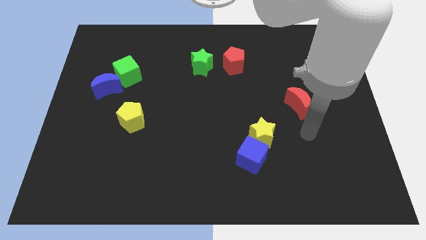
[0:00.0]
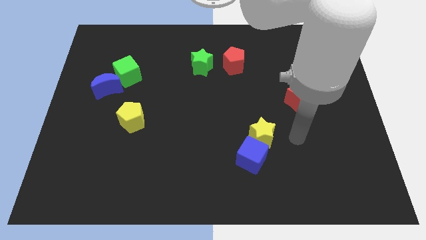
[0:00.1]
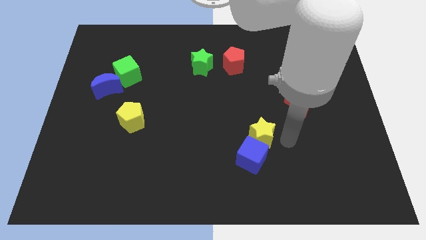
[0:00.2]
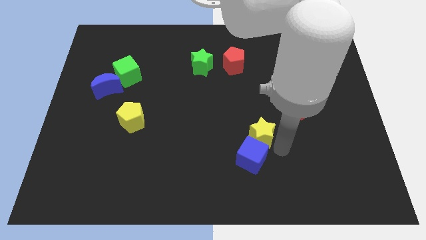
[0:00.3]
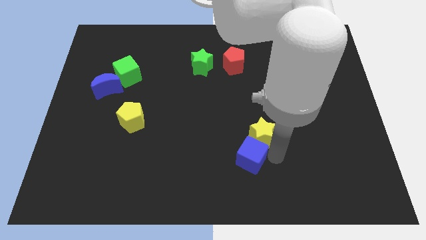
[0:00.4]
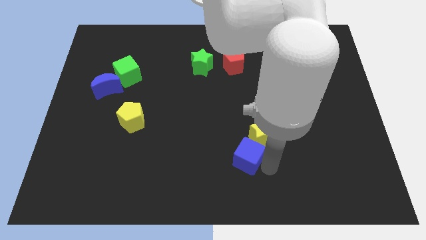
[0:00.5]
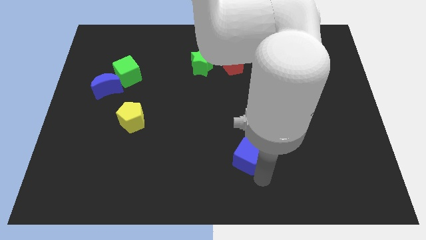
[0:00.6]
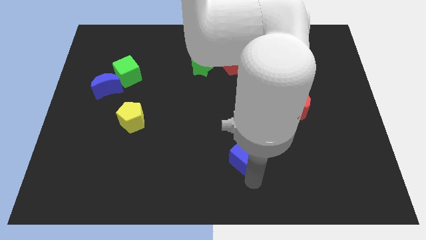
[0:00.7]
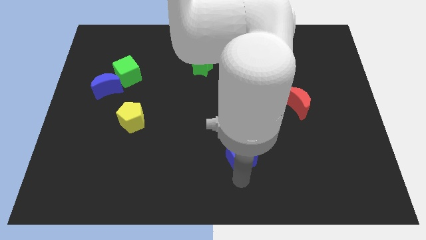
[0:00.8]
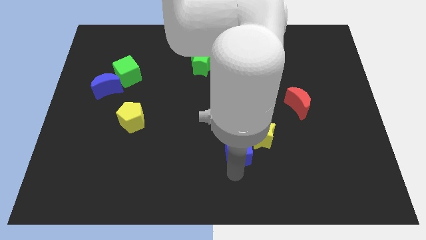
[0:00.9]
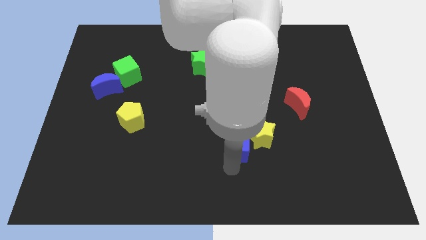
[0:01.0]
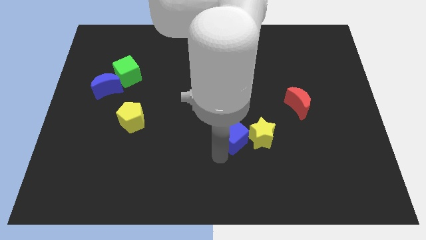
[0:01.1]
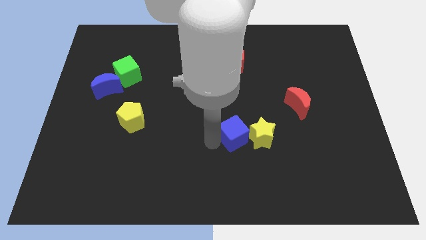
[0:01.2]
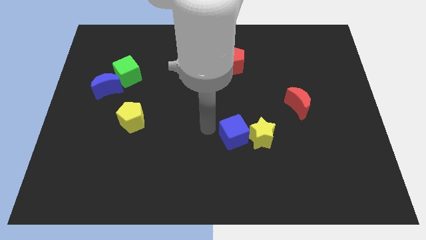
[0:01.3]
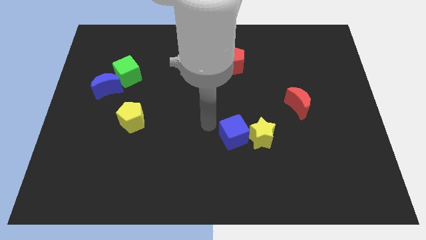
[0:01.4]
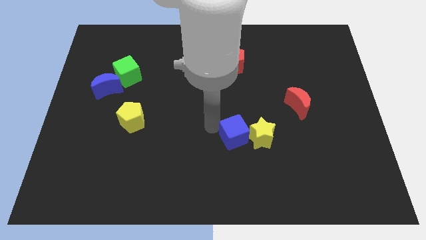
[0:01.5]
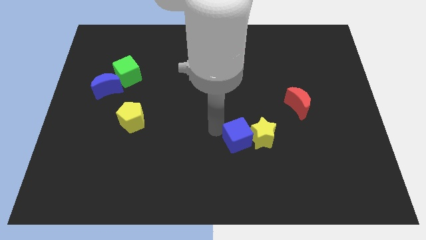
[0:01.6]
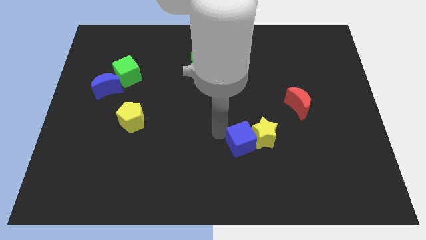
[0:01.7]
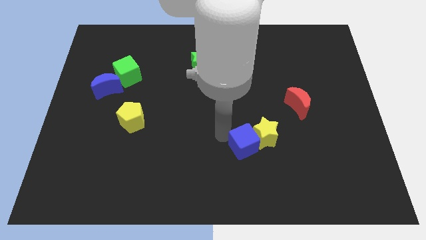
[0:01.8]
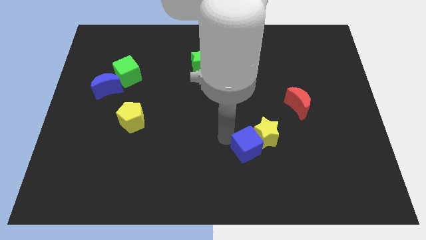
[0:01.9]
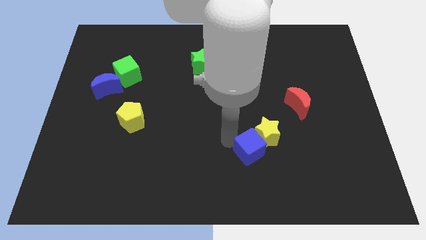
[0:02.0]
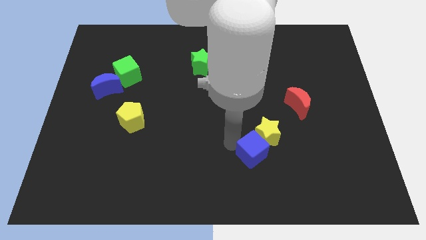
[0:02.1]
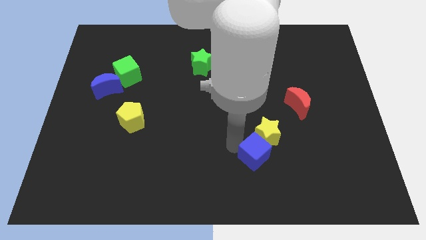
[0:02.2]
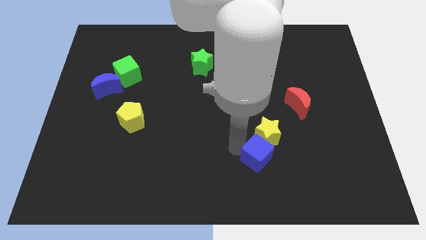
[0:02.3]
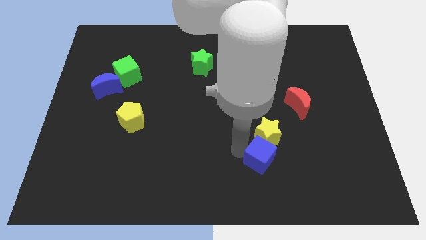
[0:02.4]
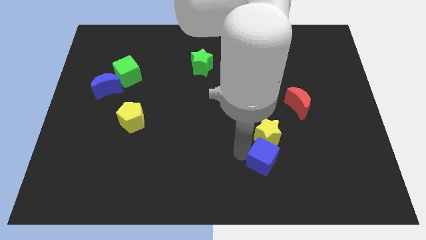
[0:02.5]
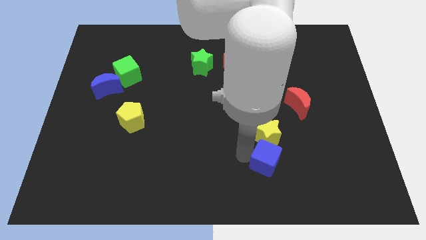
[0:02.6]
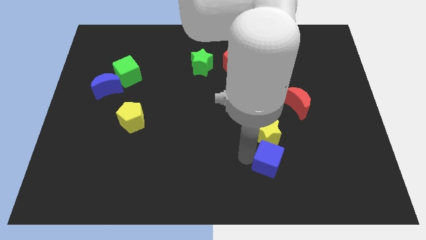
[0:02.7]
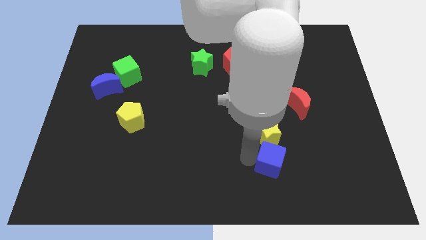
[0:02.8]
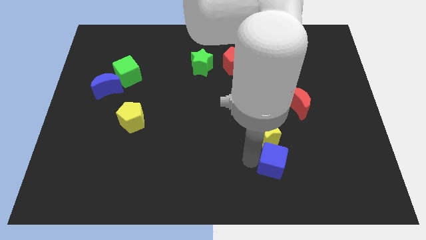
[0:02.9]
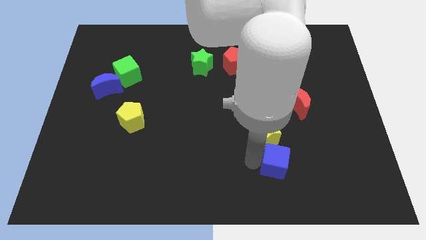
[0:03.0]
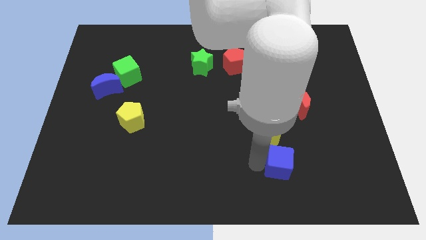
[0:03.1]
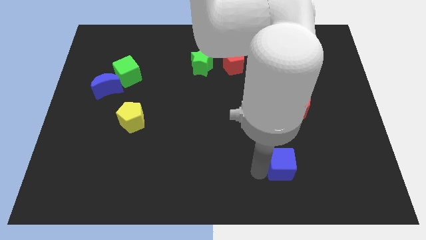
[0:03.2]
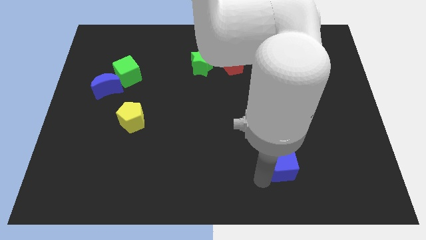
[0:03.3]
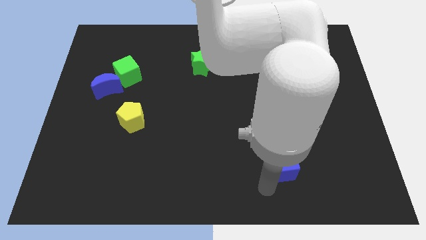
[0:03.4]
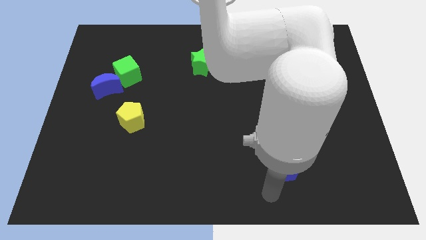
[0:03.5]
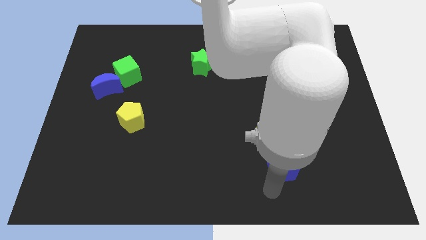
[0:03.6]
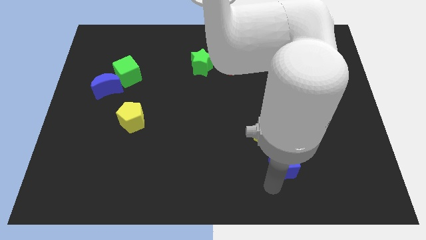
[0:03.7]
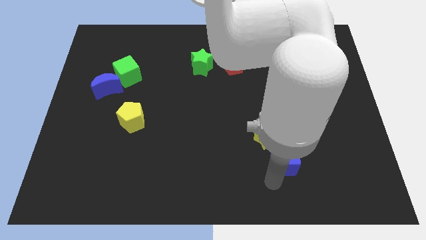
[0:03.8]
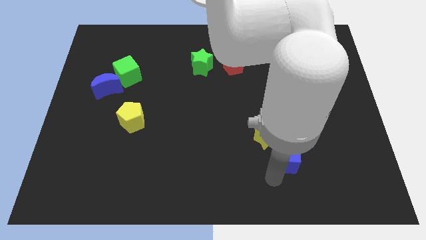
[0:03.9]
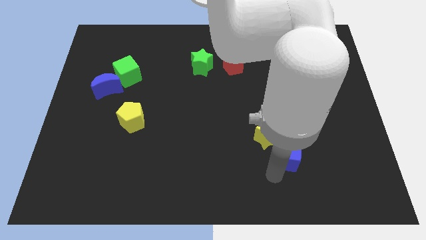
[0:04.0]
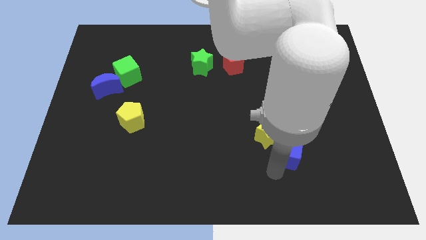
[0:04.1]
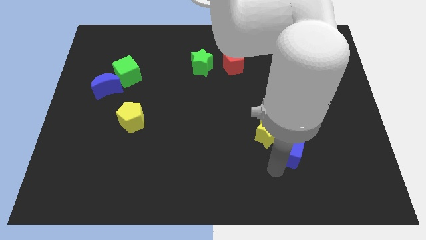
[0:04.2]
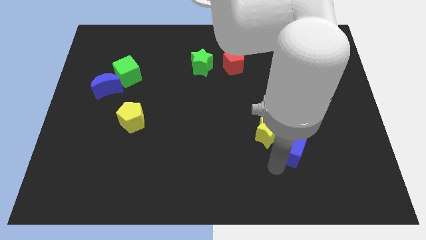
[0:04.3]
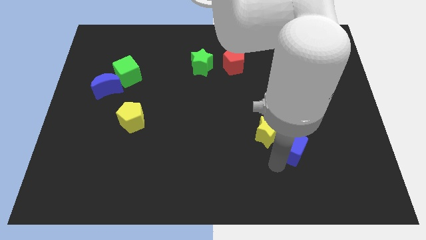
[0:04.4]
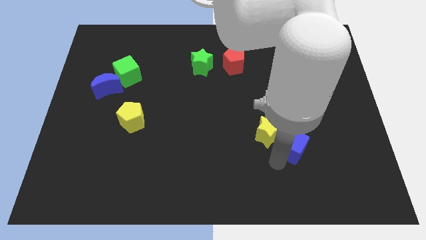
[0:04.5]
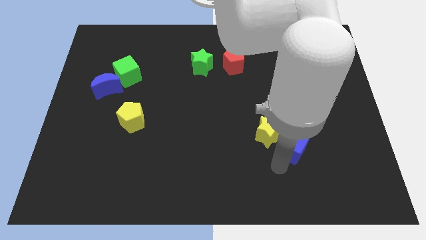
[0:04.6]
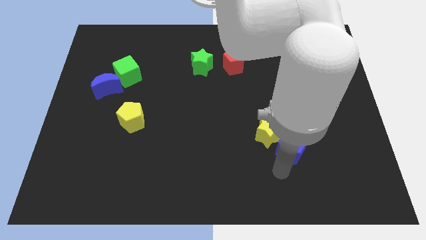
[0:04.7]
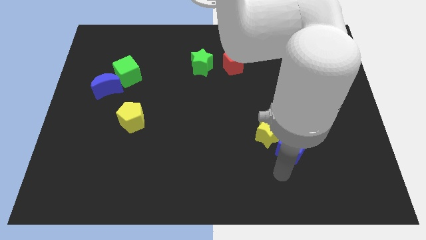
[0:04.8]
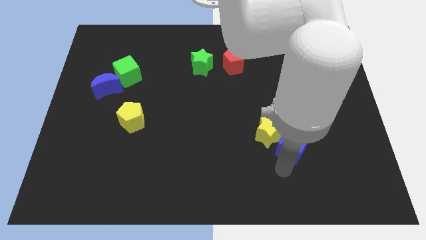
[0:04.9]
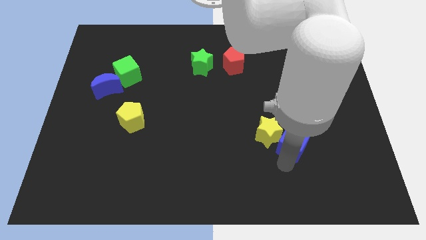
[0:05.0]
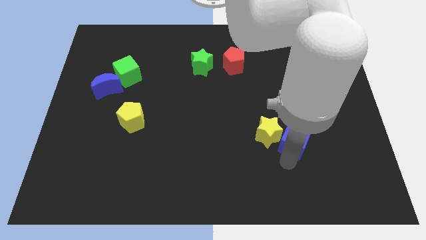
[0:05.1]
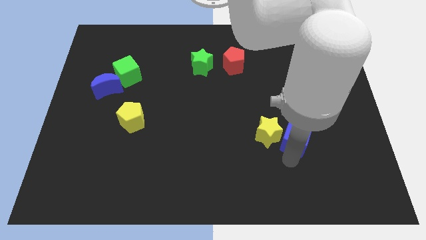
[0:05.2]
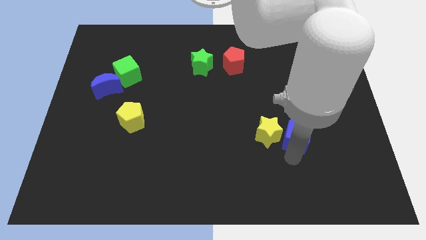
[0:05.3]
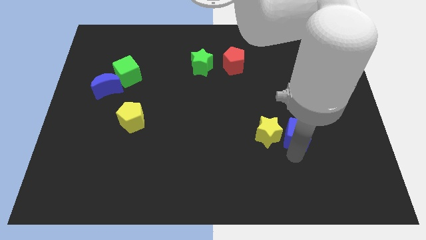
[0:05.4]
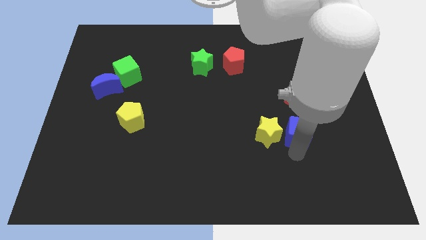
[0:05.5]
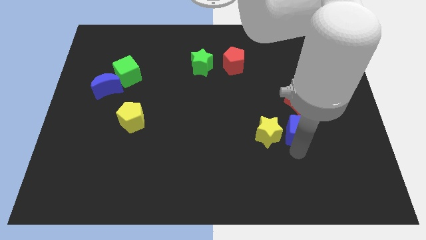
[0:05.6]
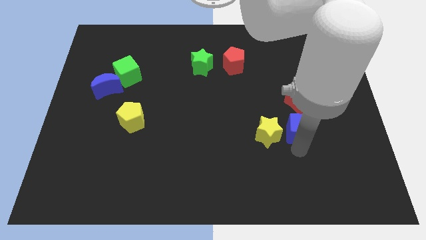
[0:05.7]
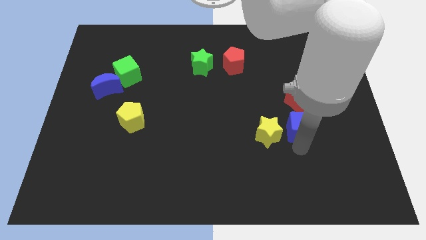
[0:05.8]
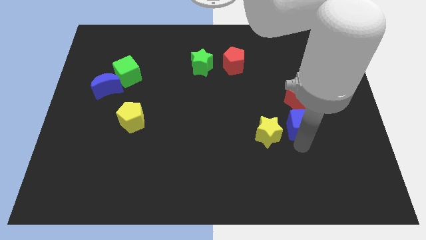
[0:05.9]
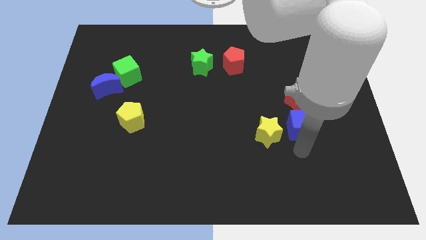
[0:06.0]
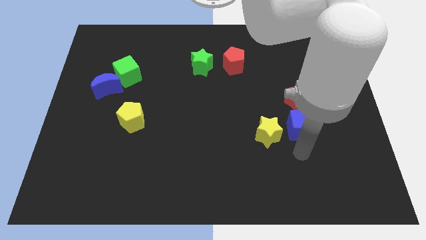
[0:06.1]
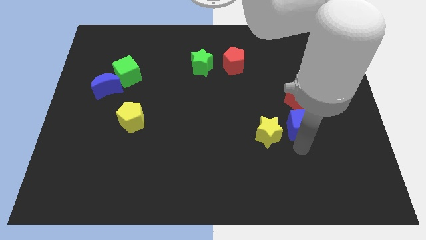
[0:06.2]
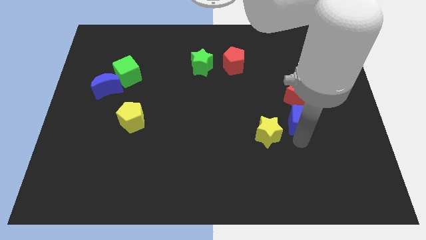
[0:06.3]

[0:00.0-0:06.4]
push the blue cube close to the red moon

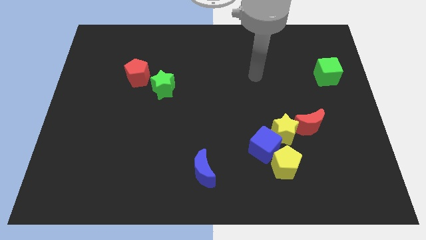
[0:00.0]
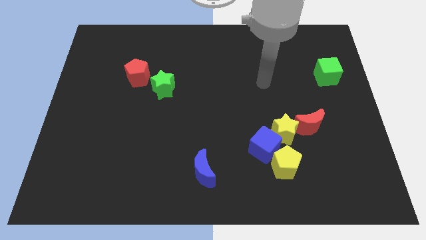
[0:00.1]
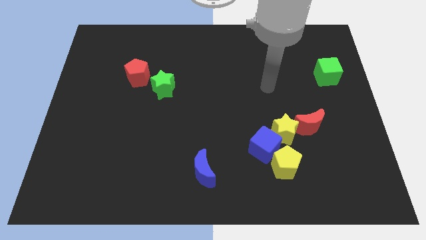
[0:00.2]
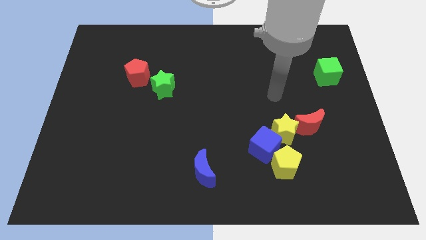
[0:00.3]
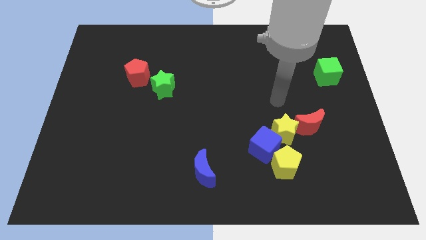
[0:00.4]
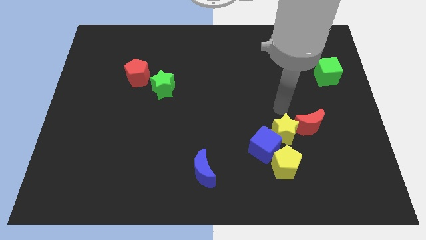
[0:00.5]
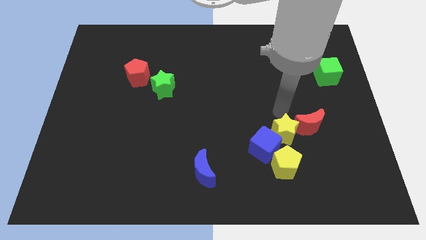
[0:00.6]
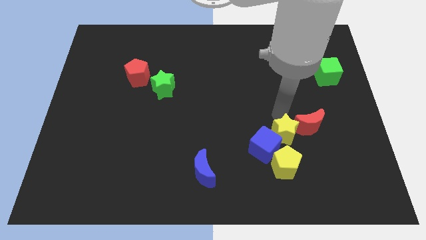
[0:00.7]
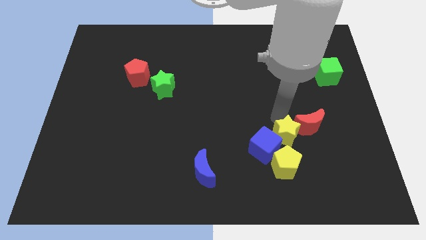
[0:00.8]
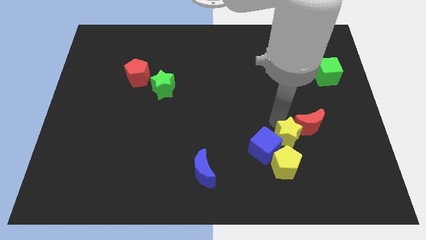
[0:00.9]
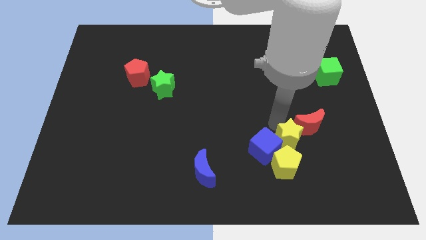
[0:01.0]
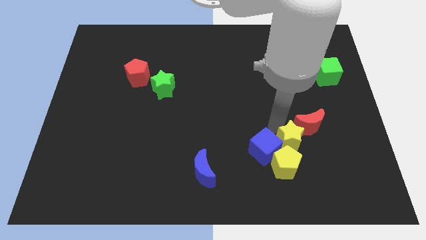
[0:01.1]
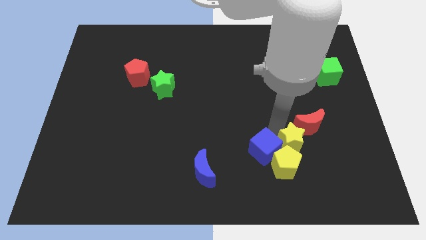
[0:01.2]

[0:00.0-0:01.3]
push the yellow star towards the yellow pentagon
